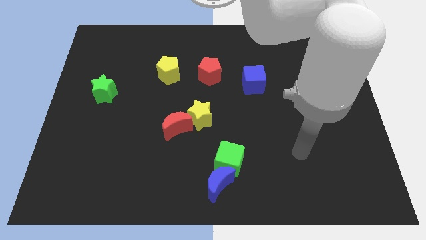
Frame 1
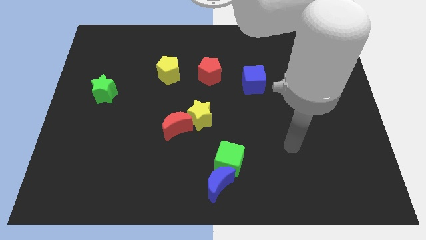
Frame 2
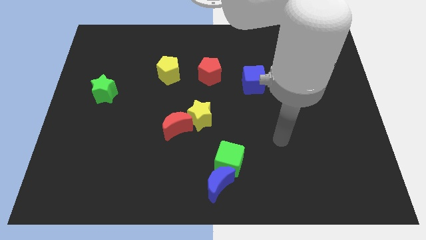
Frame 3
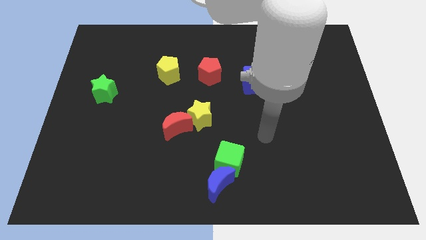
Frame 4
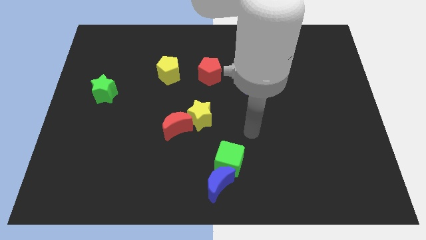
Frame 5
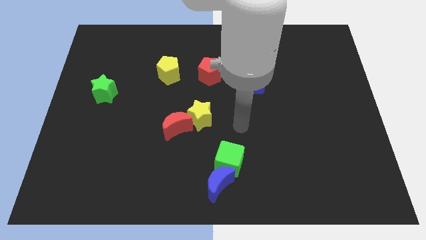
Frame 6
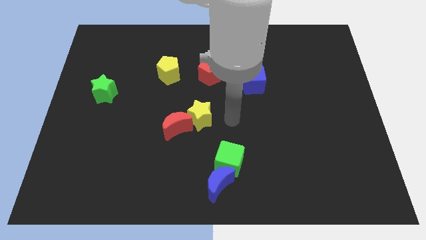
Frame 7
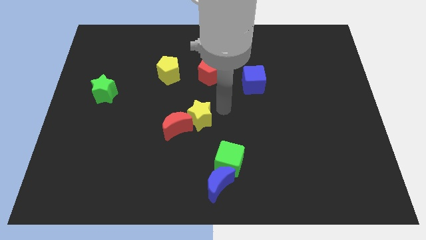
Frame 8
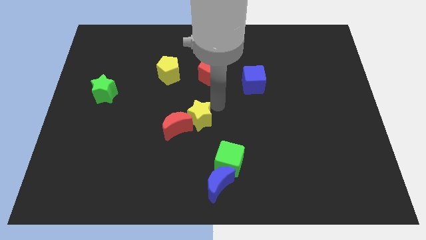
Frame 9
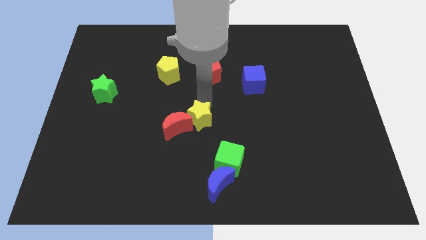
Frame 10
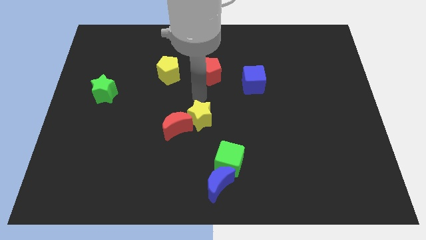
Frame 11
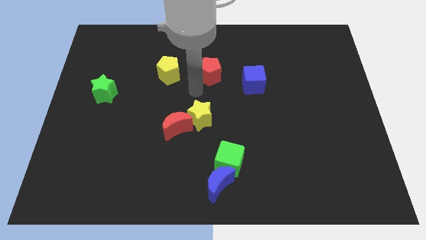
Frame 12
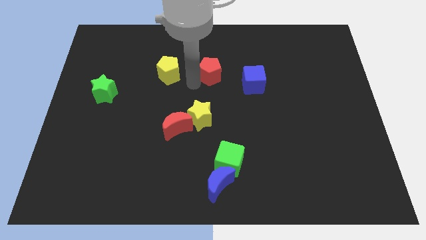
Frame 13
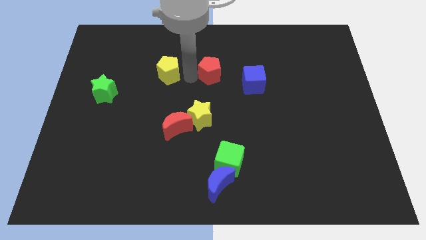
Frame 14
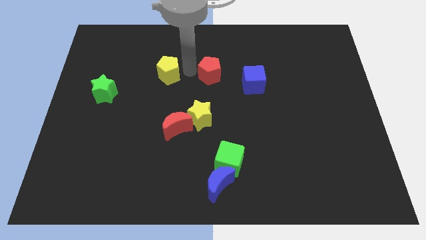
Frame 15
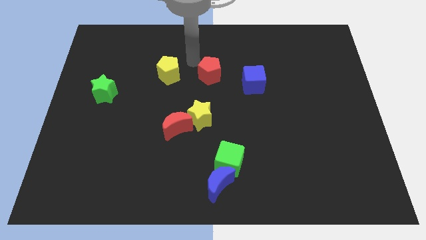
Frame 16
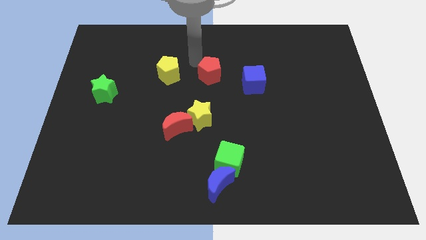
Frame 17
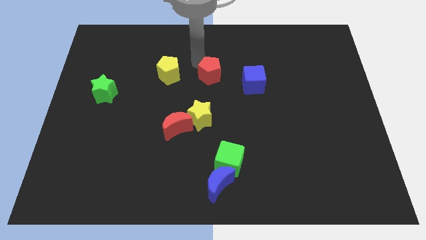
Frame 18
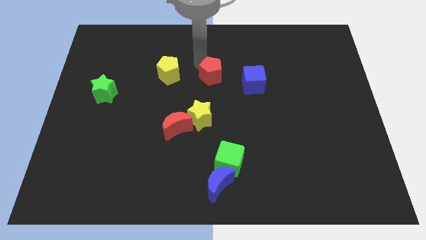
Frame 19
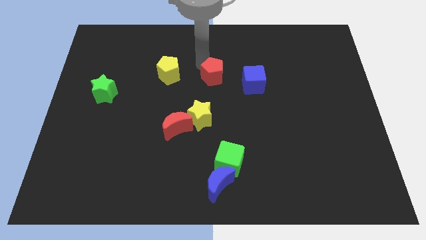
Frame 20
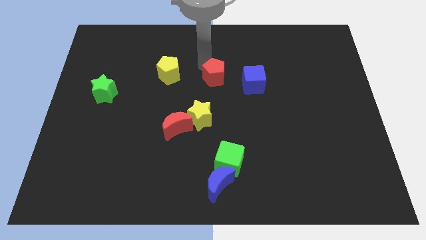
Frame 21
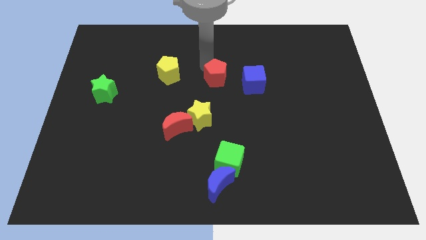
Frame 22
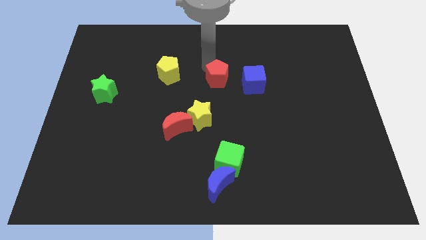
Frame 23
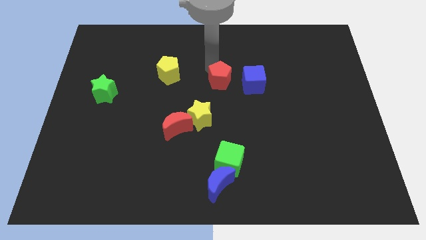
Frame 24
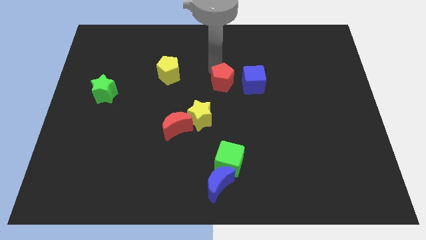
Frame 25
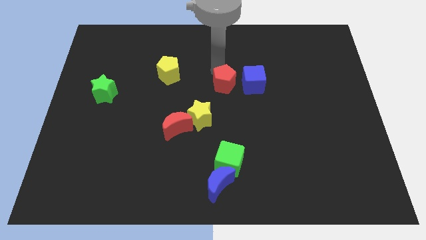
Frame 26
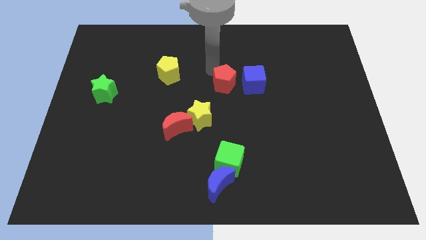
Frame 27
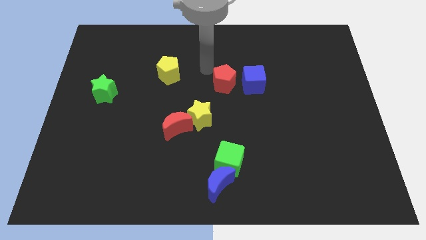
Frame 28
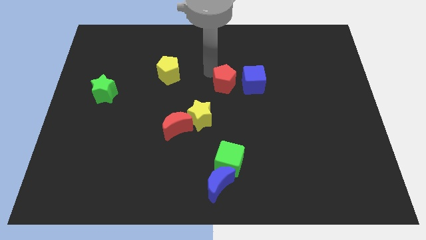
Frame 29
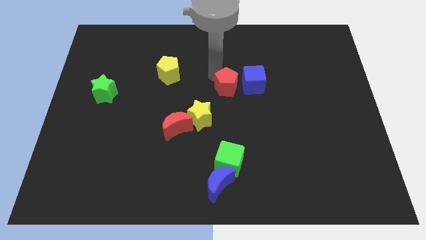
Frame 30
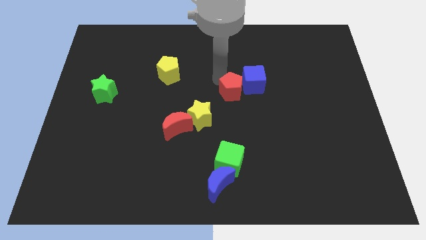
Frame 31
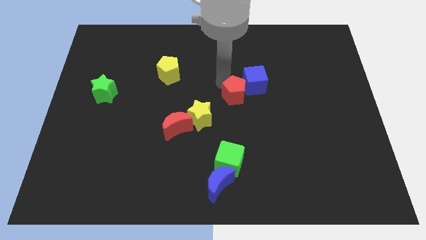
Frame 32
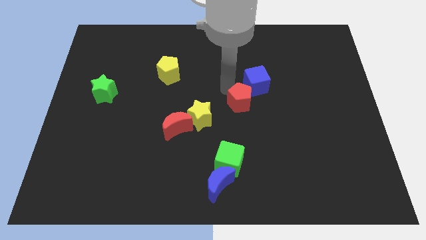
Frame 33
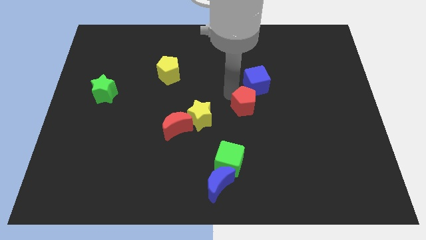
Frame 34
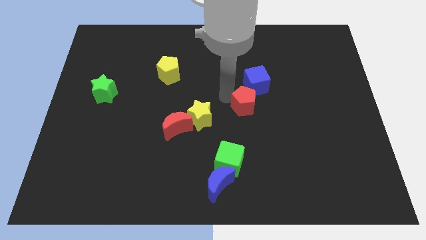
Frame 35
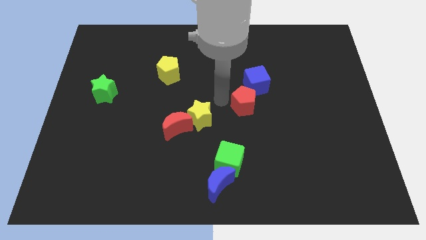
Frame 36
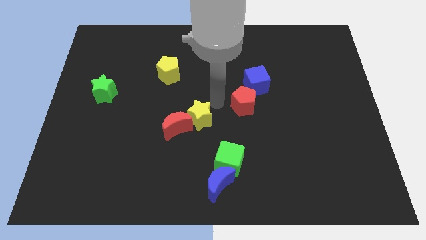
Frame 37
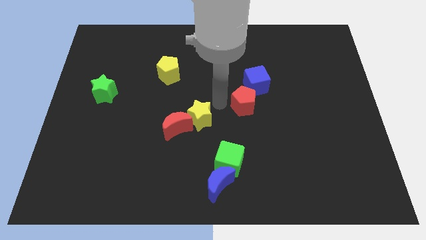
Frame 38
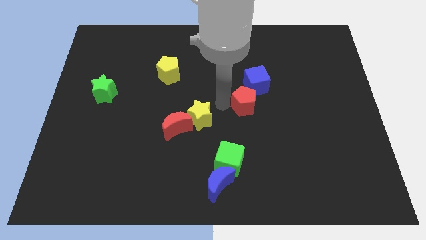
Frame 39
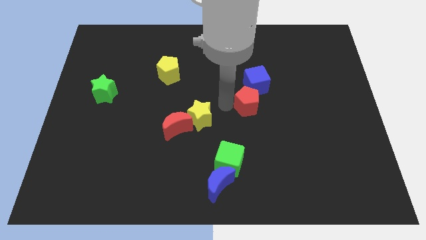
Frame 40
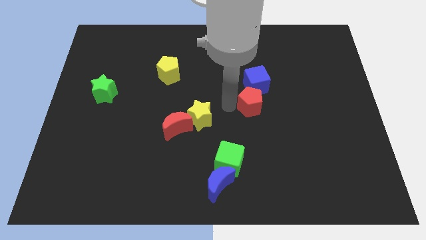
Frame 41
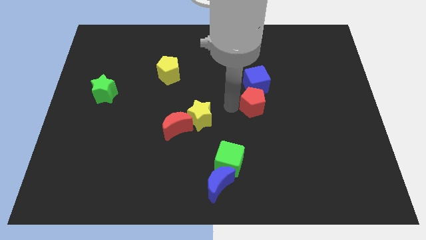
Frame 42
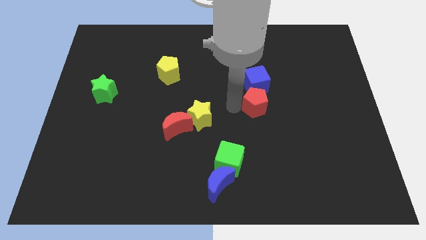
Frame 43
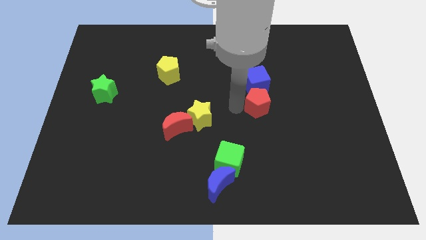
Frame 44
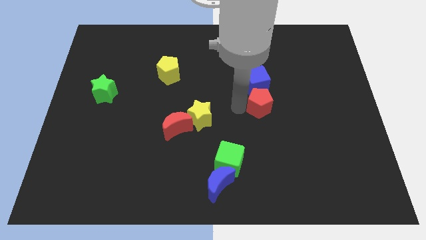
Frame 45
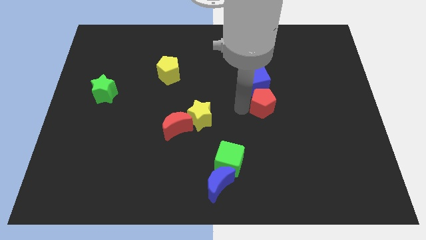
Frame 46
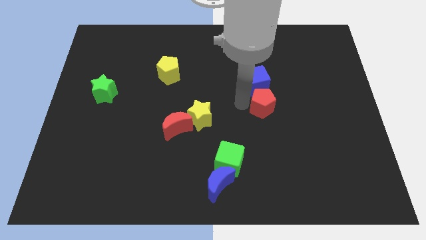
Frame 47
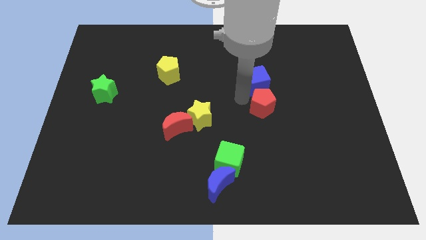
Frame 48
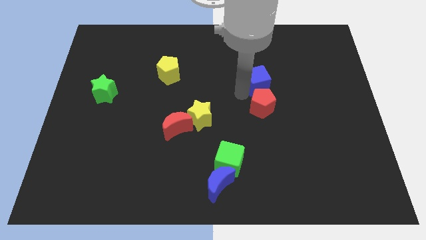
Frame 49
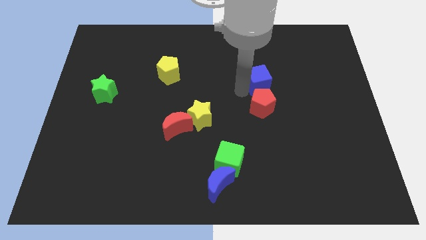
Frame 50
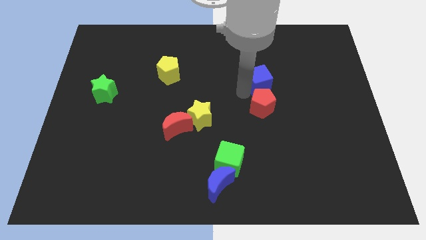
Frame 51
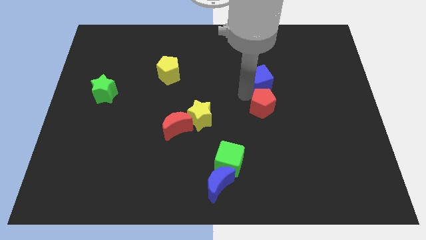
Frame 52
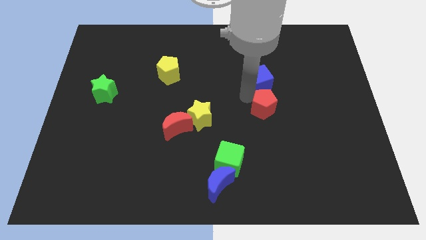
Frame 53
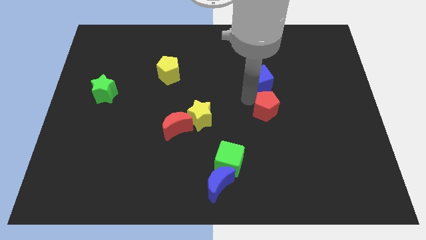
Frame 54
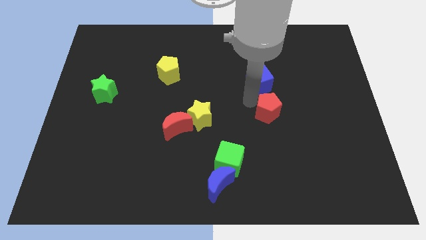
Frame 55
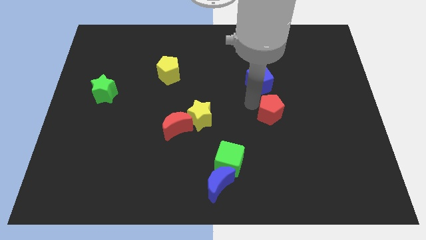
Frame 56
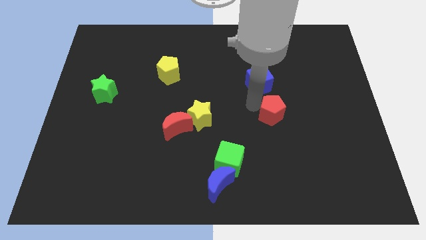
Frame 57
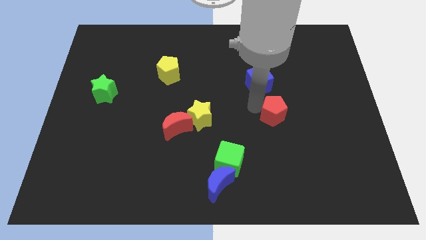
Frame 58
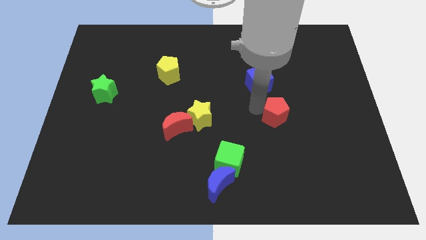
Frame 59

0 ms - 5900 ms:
move the red pentagon downwards and then to the right

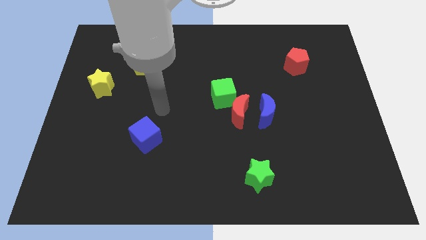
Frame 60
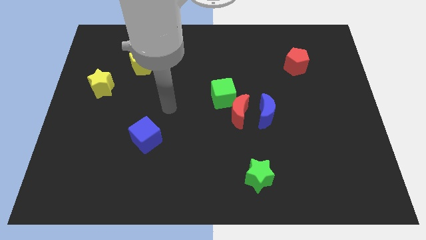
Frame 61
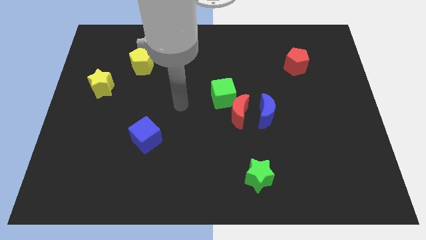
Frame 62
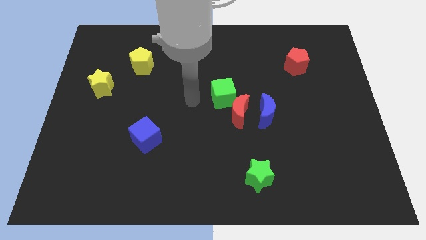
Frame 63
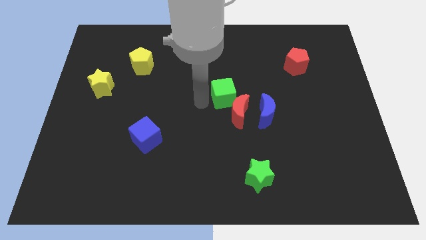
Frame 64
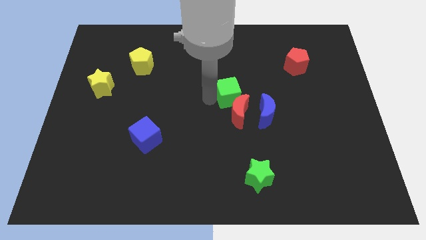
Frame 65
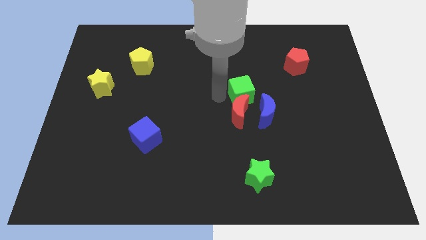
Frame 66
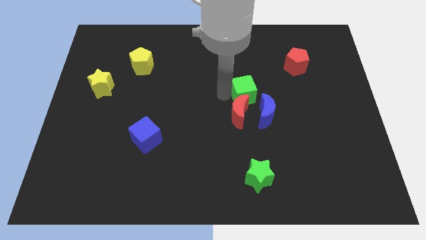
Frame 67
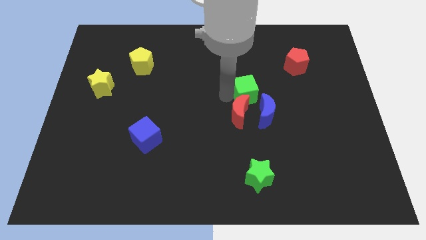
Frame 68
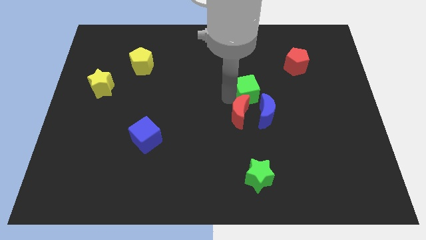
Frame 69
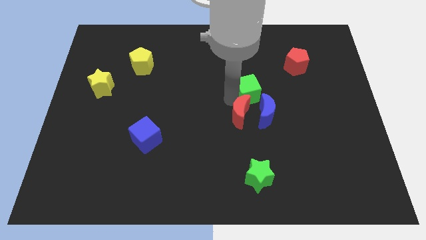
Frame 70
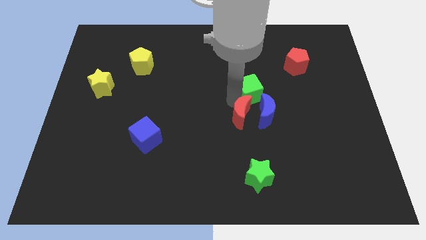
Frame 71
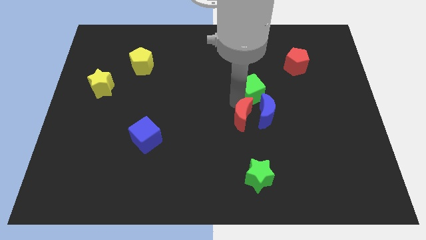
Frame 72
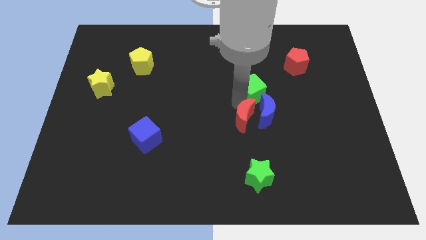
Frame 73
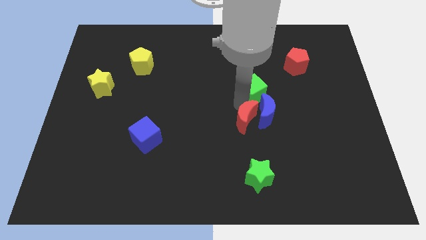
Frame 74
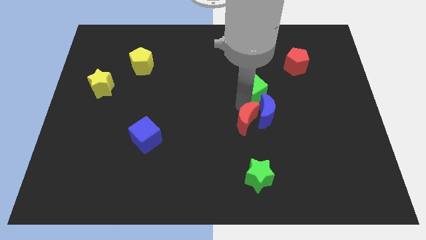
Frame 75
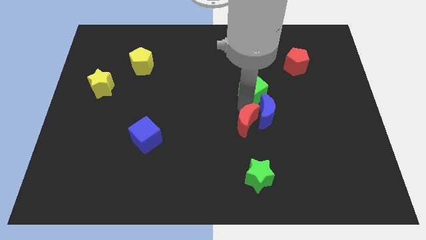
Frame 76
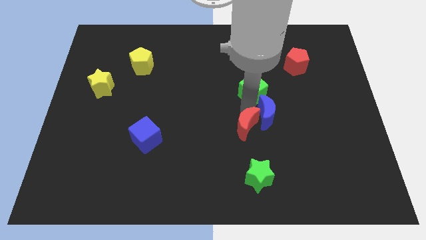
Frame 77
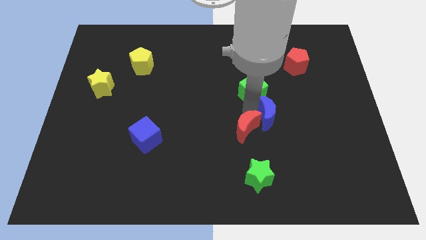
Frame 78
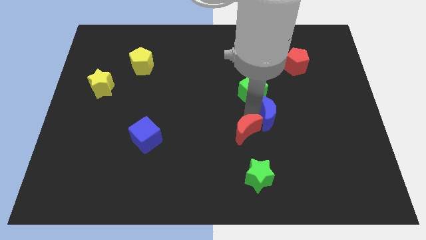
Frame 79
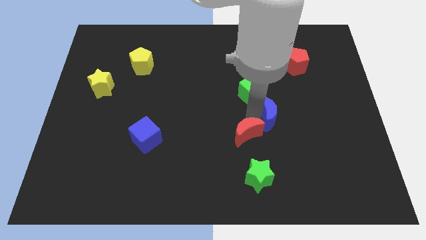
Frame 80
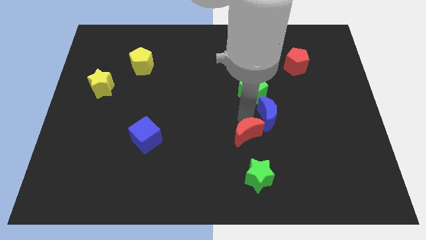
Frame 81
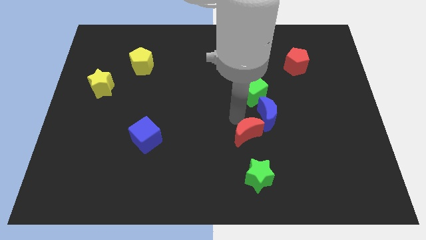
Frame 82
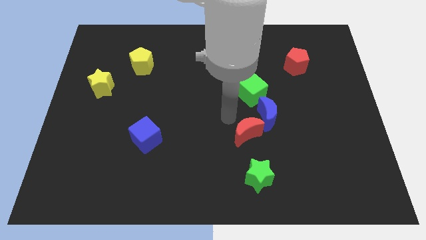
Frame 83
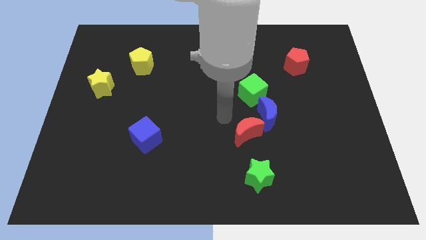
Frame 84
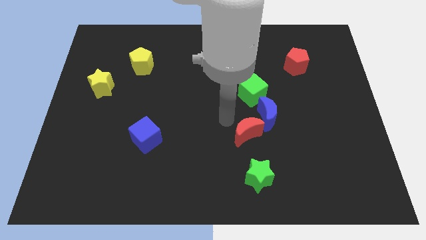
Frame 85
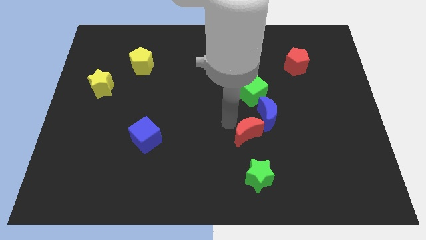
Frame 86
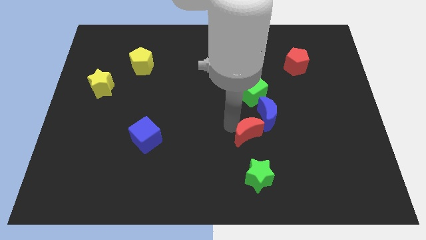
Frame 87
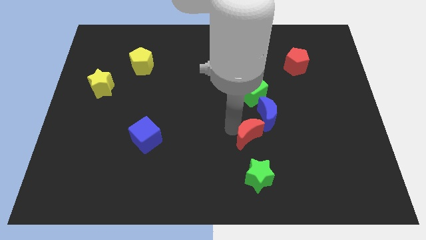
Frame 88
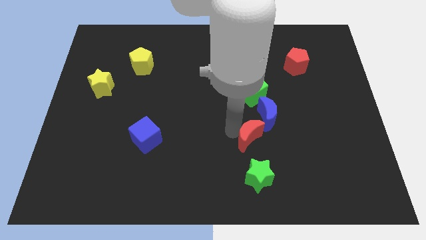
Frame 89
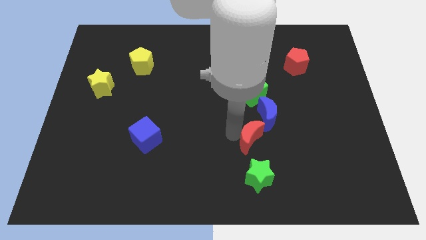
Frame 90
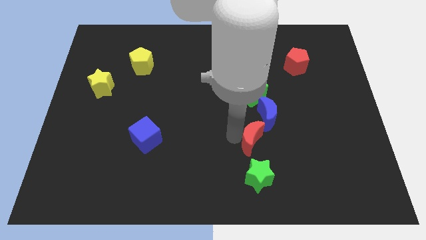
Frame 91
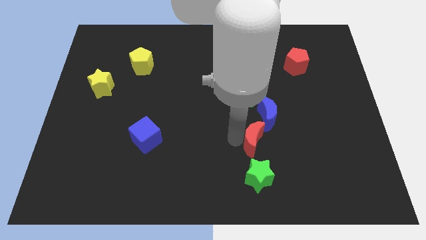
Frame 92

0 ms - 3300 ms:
slightly move the red moon down and then to the right
